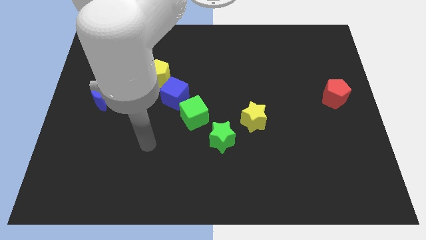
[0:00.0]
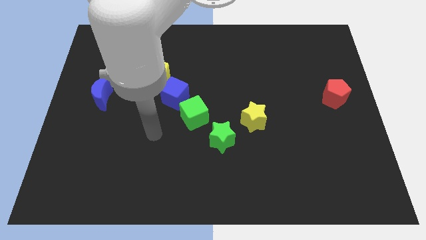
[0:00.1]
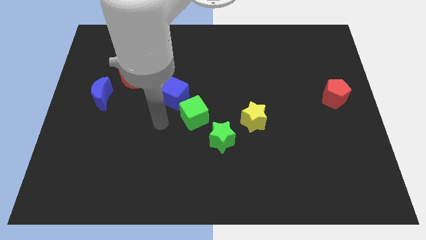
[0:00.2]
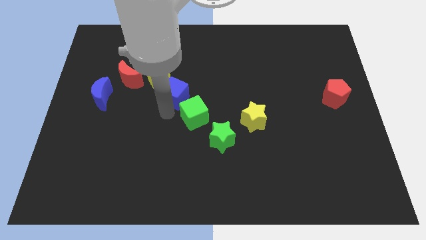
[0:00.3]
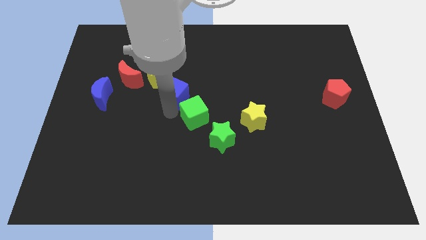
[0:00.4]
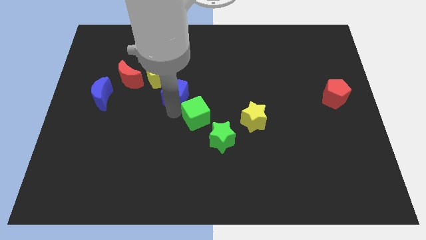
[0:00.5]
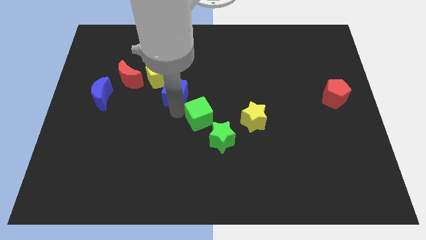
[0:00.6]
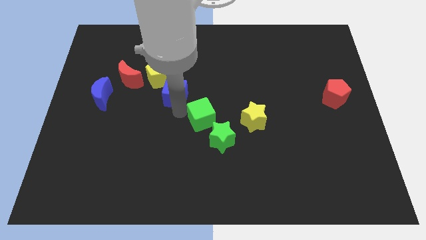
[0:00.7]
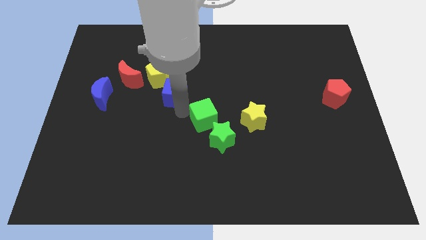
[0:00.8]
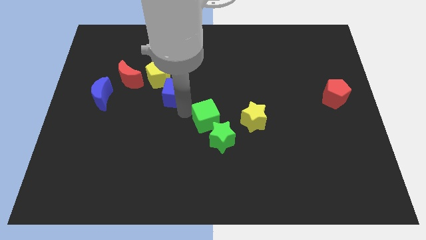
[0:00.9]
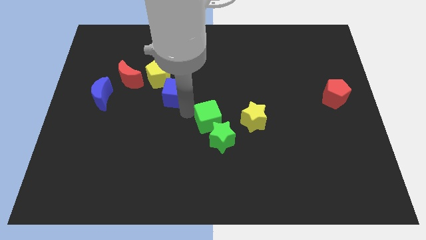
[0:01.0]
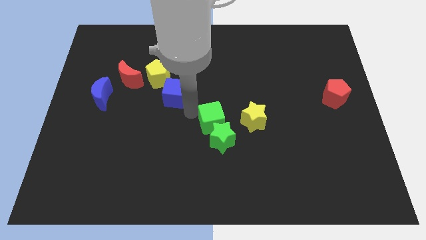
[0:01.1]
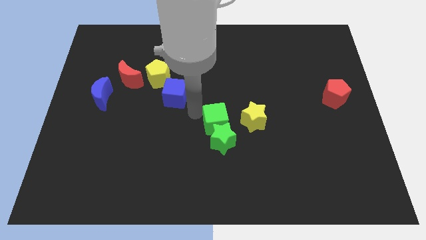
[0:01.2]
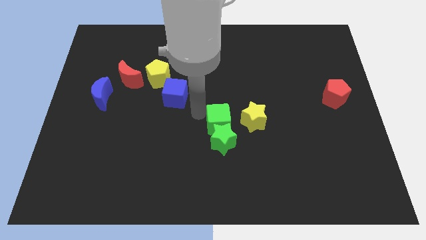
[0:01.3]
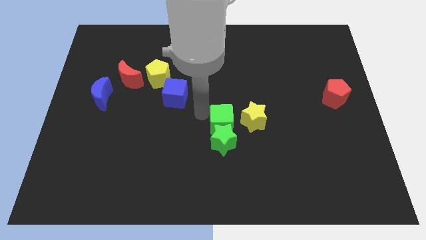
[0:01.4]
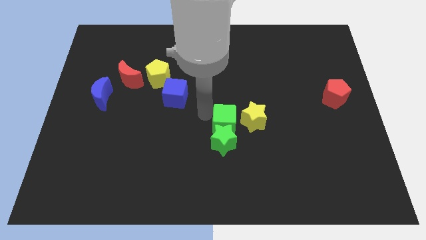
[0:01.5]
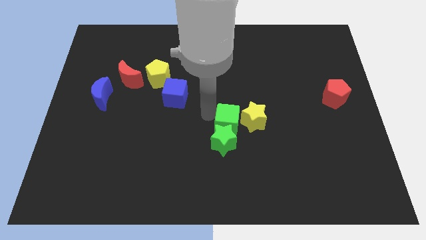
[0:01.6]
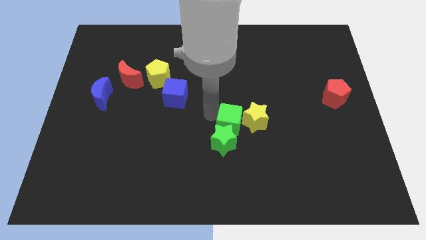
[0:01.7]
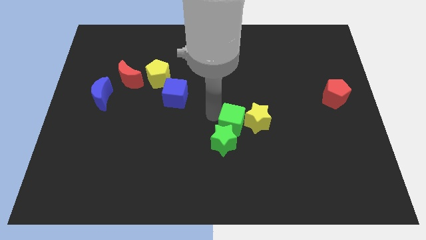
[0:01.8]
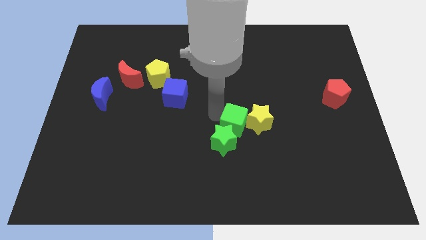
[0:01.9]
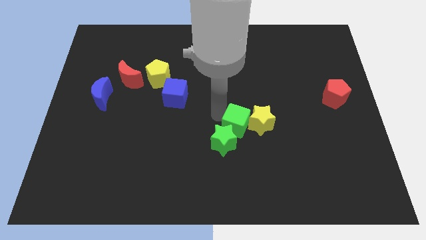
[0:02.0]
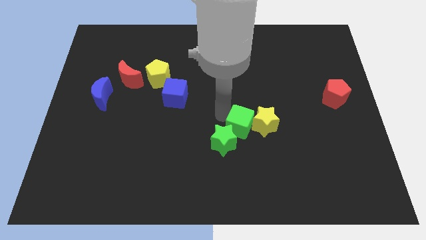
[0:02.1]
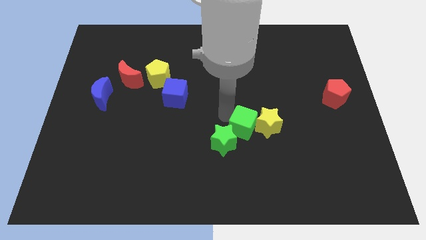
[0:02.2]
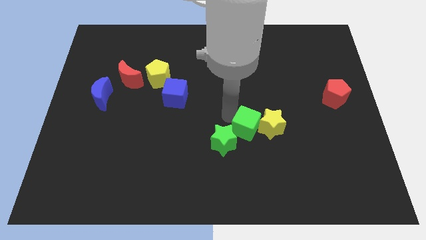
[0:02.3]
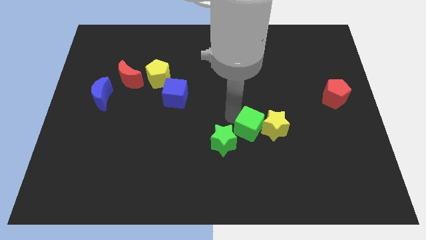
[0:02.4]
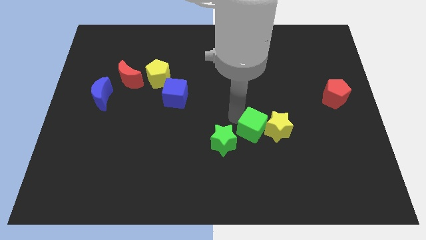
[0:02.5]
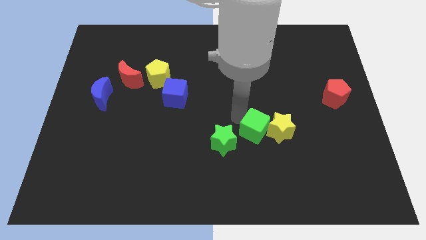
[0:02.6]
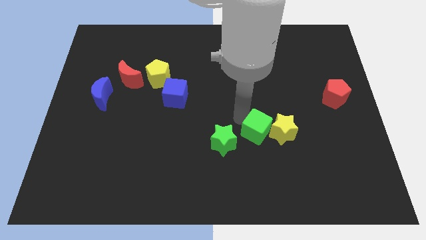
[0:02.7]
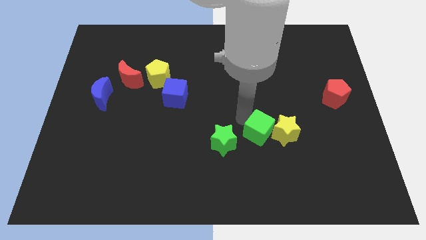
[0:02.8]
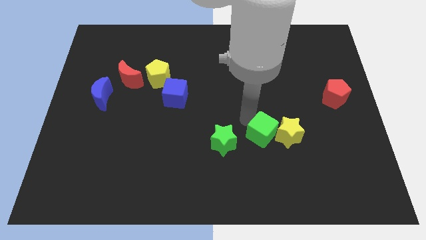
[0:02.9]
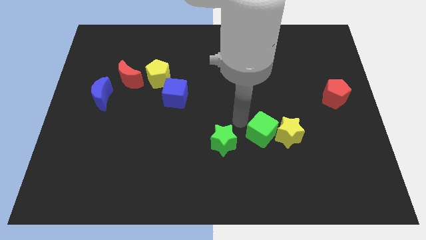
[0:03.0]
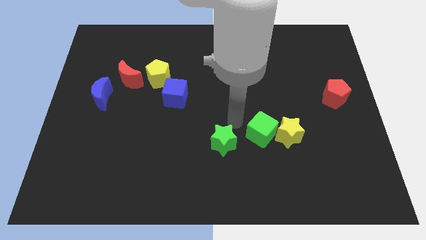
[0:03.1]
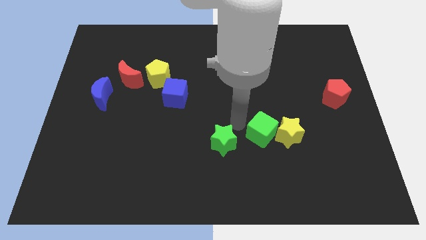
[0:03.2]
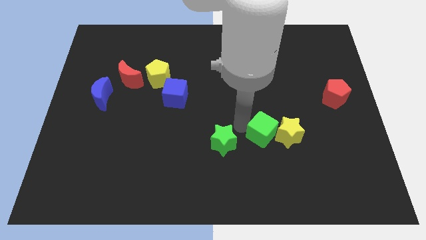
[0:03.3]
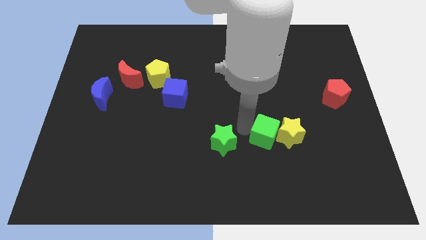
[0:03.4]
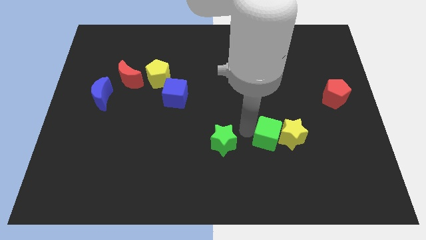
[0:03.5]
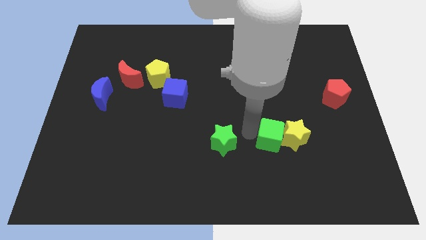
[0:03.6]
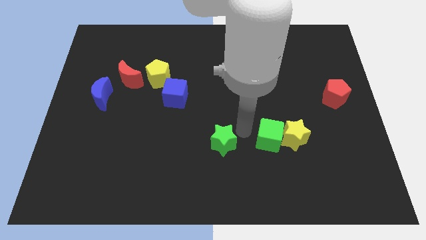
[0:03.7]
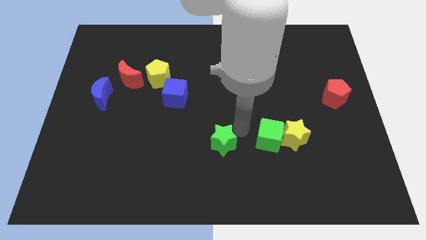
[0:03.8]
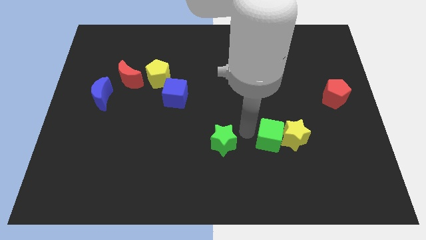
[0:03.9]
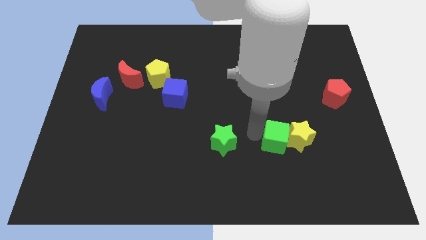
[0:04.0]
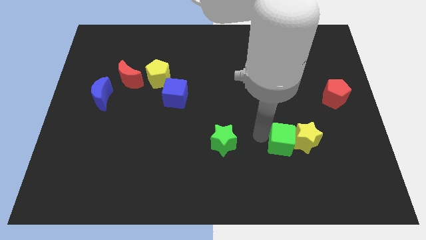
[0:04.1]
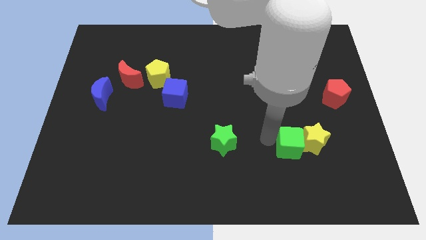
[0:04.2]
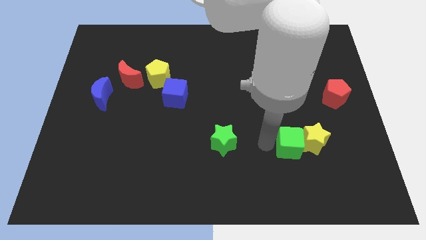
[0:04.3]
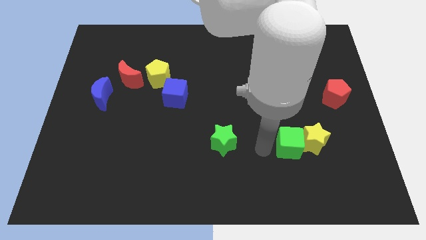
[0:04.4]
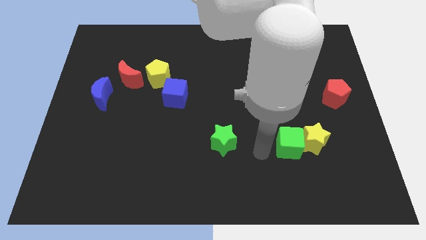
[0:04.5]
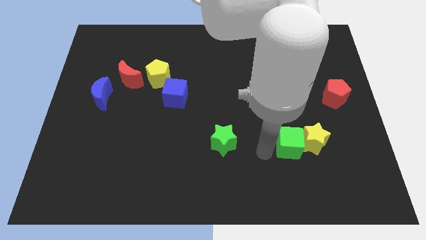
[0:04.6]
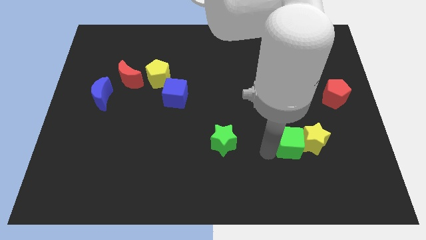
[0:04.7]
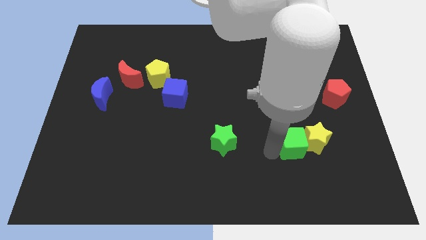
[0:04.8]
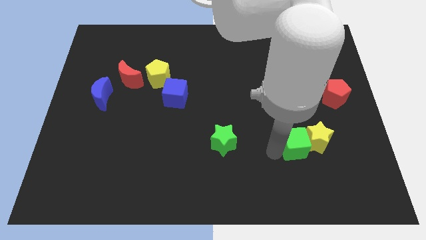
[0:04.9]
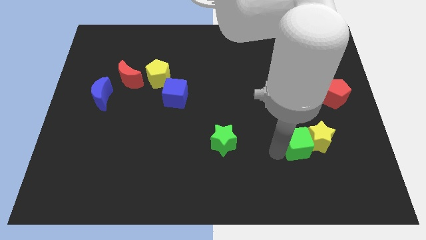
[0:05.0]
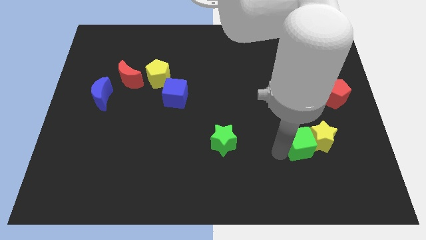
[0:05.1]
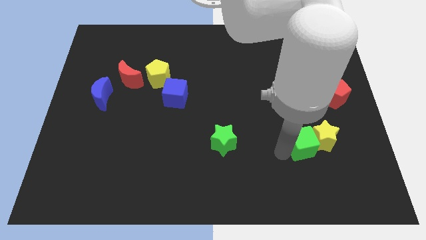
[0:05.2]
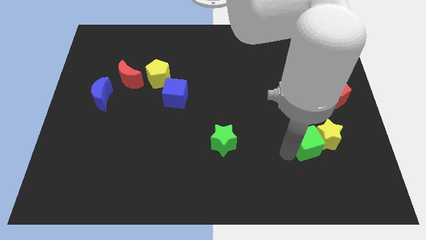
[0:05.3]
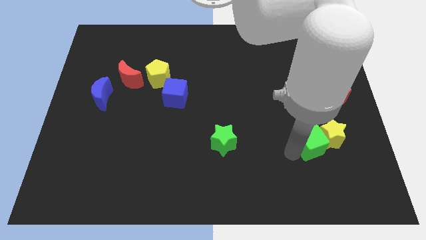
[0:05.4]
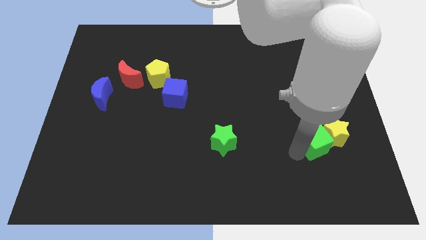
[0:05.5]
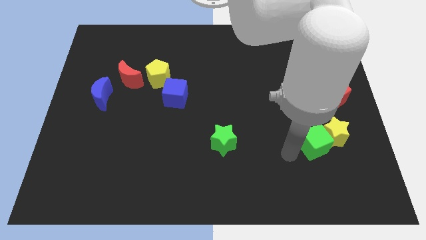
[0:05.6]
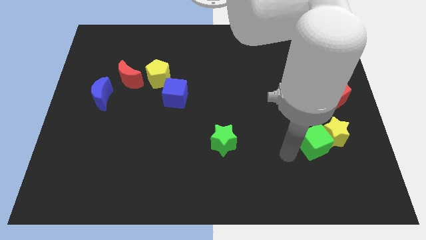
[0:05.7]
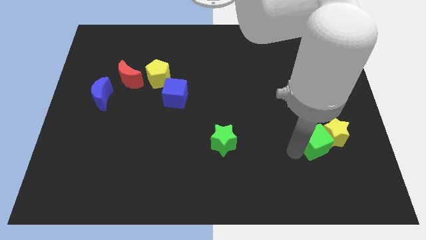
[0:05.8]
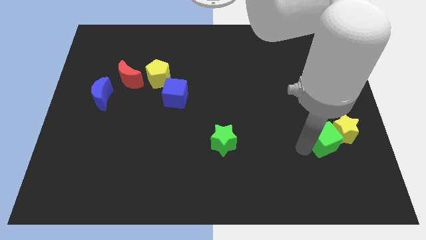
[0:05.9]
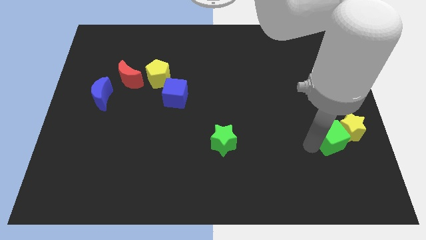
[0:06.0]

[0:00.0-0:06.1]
put the green cube to the bottom of the red pentagon

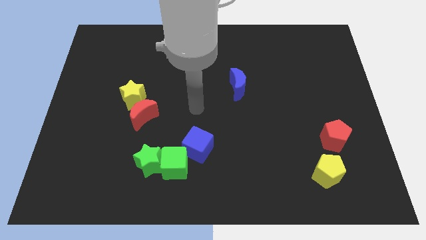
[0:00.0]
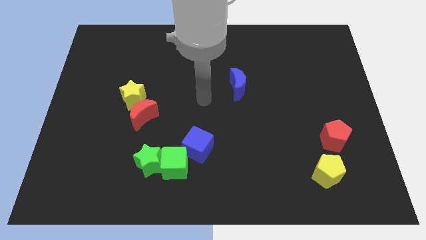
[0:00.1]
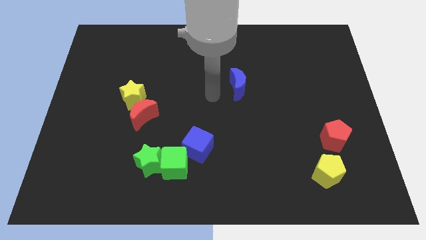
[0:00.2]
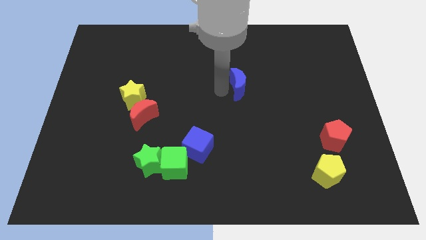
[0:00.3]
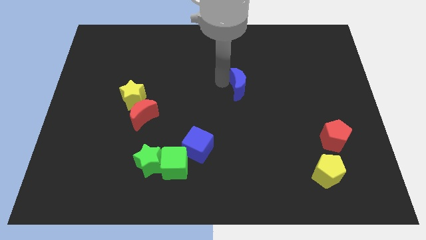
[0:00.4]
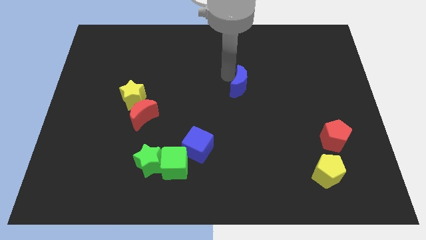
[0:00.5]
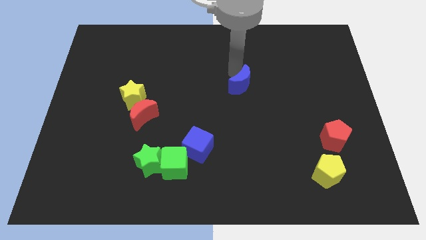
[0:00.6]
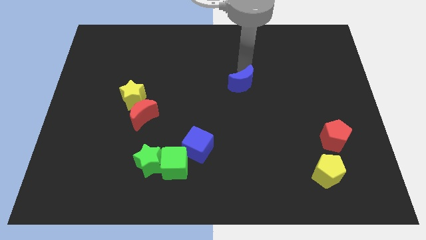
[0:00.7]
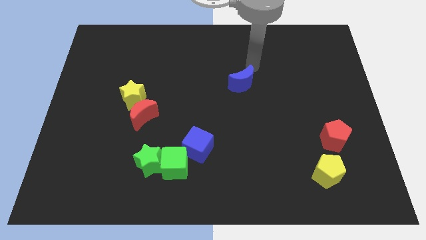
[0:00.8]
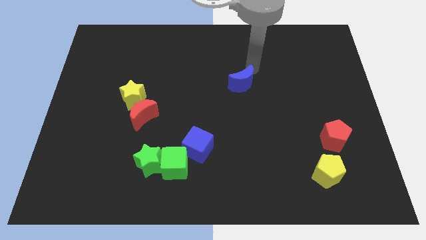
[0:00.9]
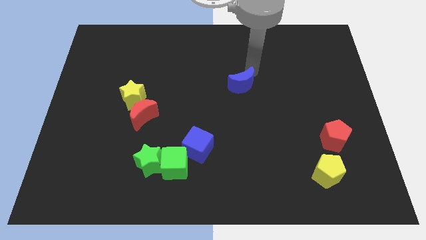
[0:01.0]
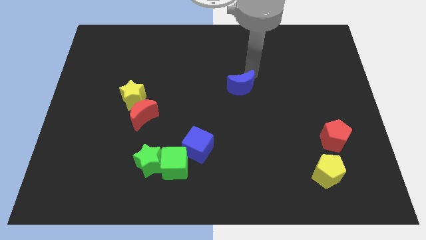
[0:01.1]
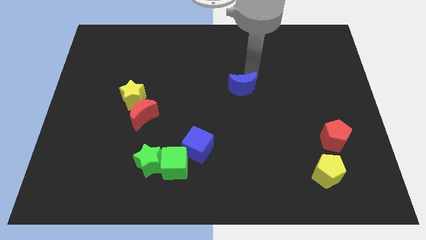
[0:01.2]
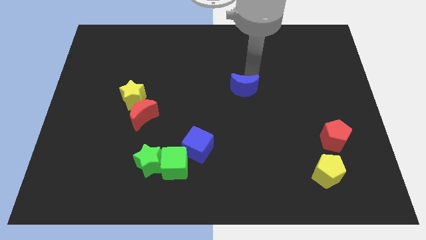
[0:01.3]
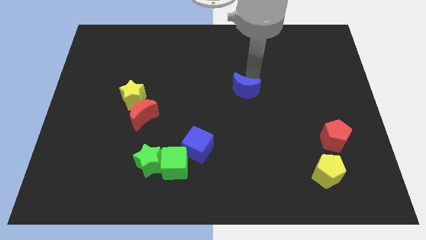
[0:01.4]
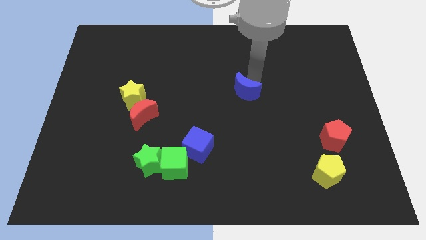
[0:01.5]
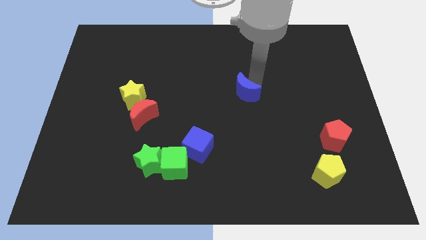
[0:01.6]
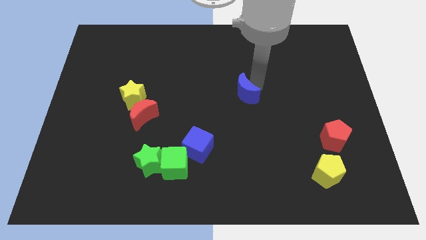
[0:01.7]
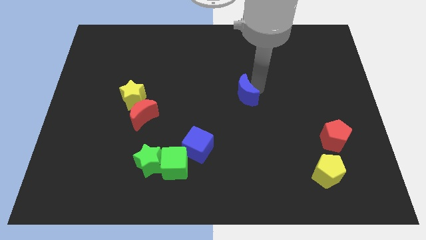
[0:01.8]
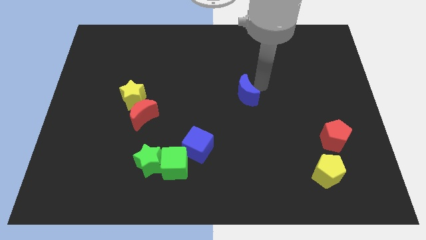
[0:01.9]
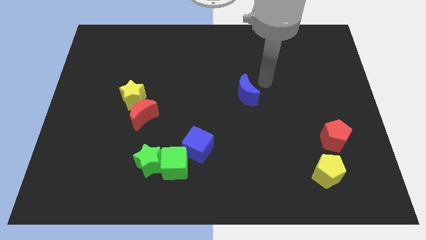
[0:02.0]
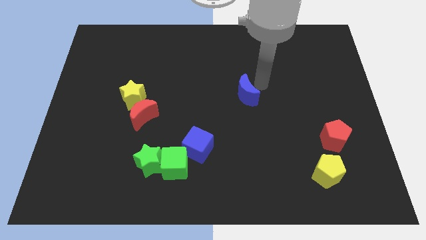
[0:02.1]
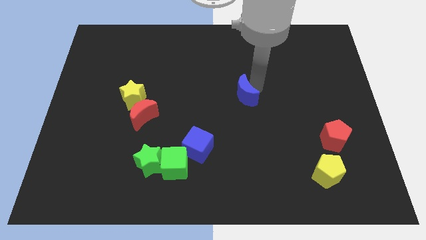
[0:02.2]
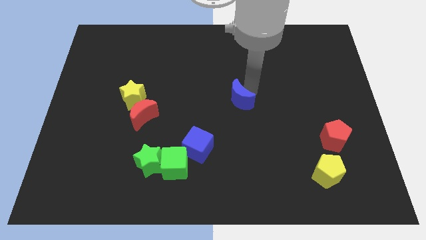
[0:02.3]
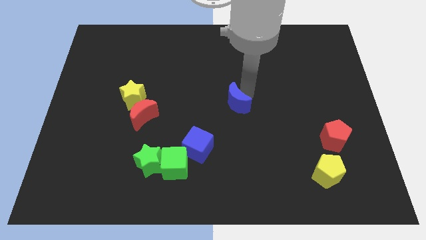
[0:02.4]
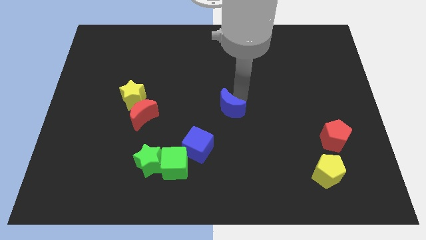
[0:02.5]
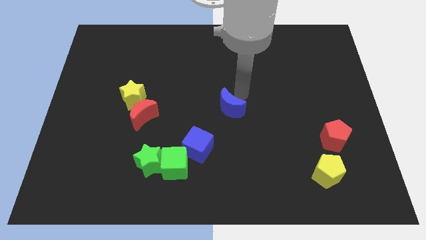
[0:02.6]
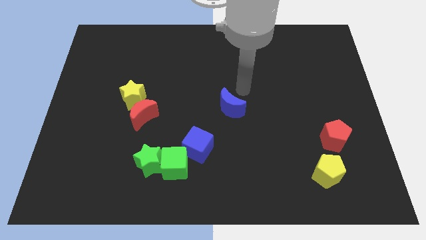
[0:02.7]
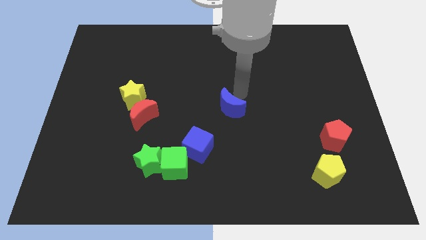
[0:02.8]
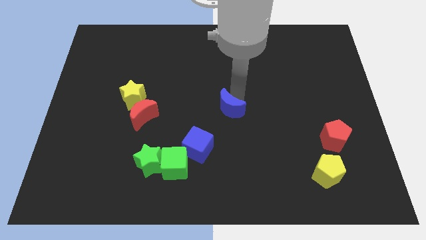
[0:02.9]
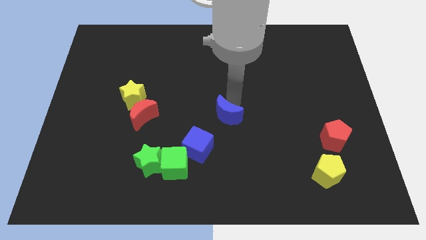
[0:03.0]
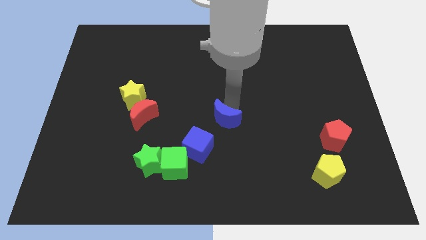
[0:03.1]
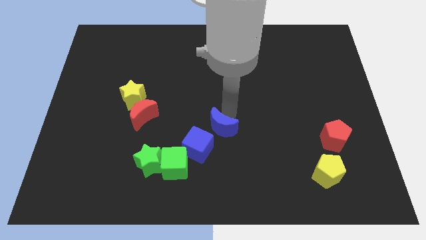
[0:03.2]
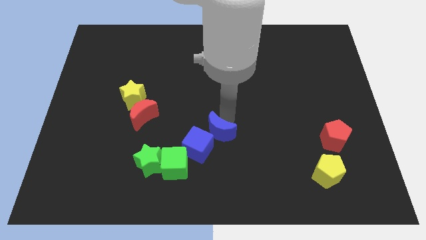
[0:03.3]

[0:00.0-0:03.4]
move the blue moon to the top right of the green cube
